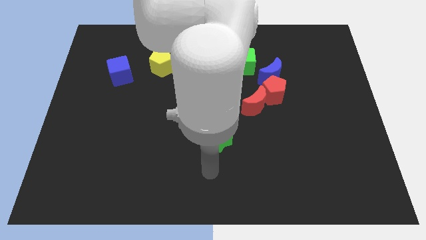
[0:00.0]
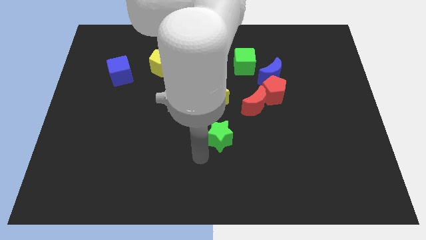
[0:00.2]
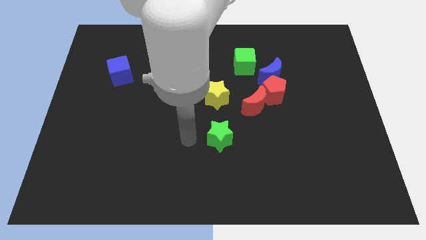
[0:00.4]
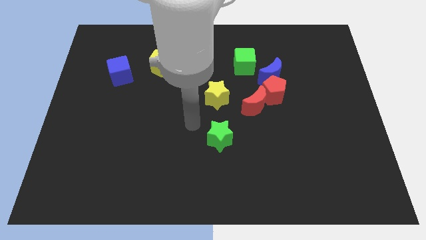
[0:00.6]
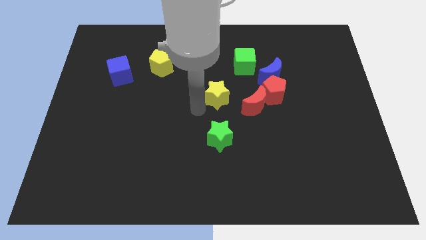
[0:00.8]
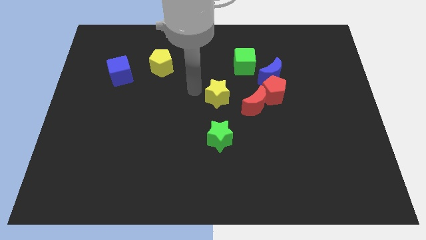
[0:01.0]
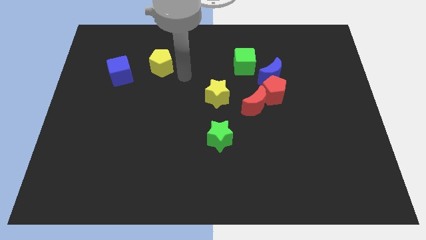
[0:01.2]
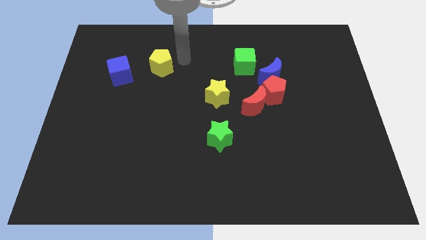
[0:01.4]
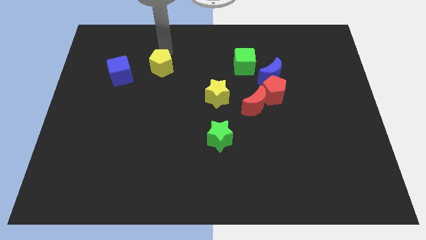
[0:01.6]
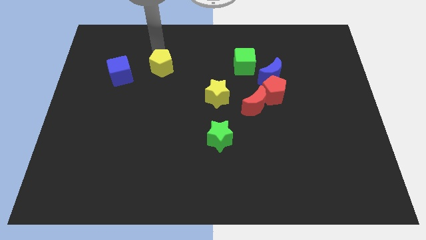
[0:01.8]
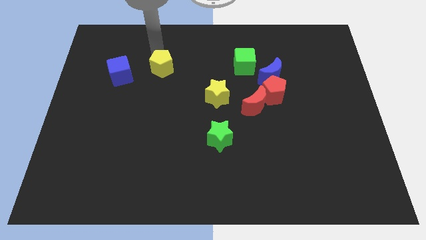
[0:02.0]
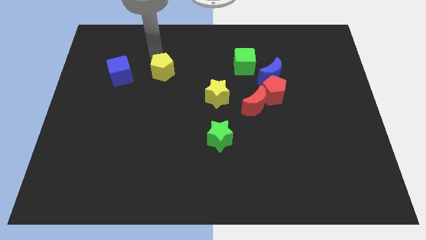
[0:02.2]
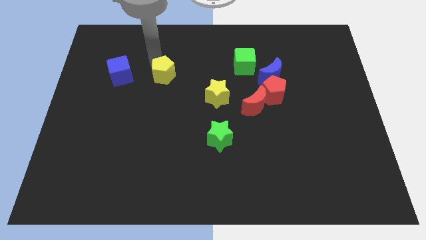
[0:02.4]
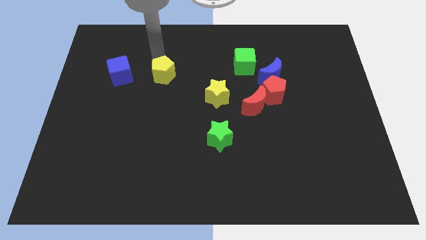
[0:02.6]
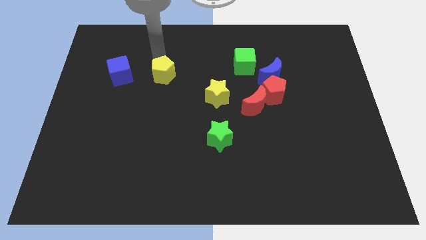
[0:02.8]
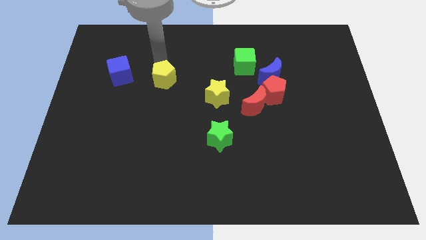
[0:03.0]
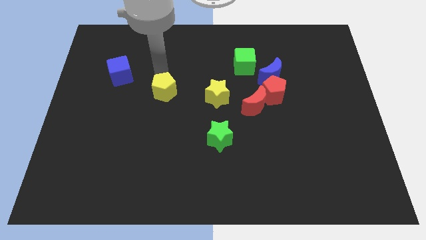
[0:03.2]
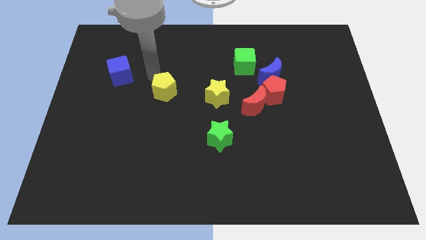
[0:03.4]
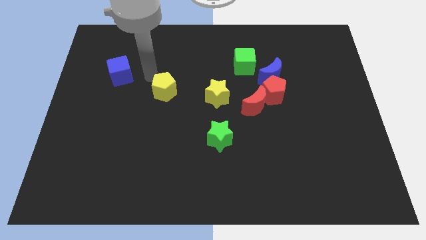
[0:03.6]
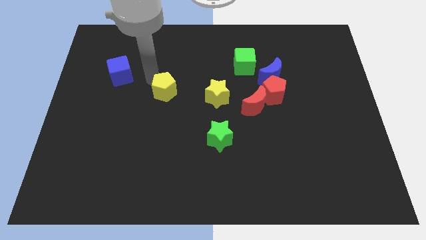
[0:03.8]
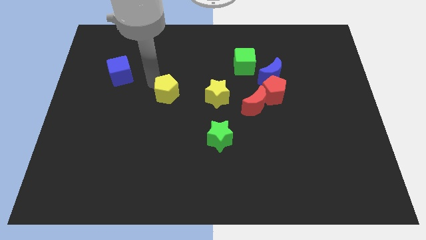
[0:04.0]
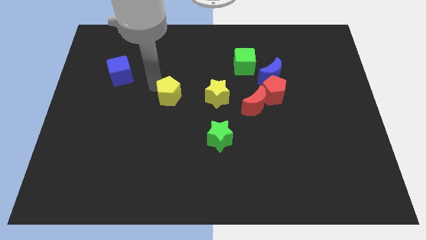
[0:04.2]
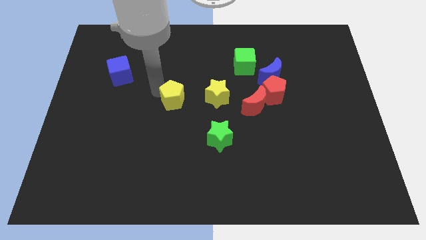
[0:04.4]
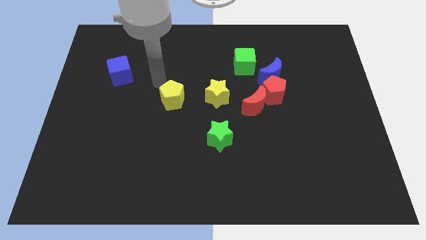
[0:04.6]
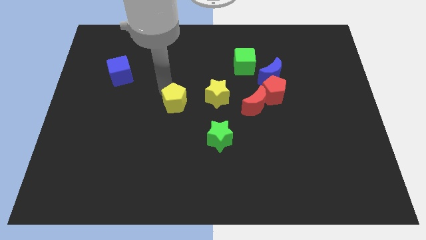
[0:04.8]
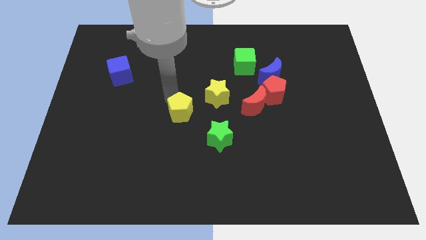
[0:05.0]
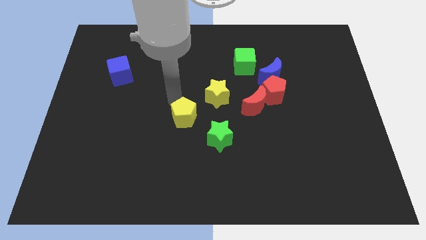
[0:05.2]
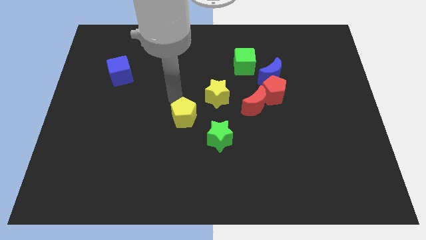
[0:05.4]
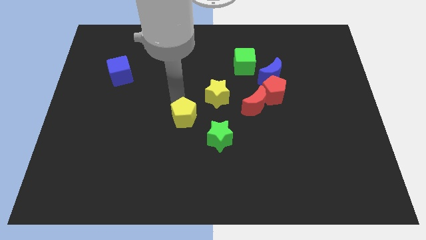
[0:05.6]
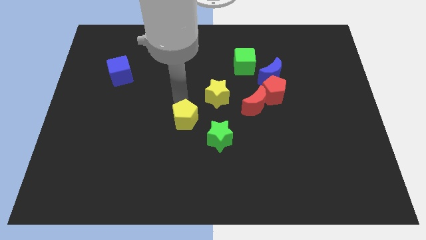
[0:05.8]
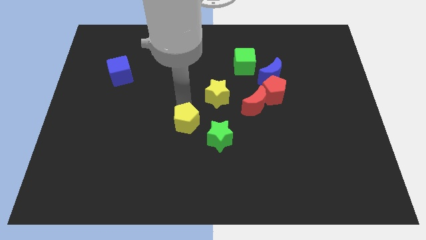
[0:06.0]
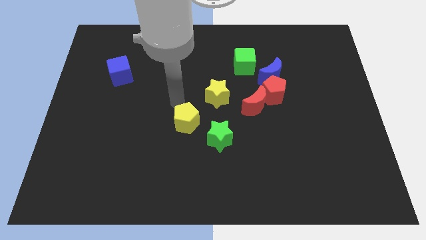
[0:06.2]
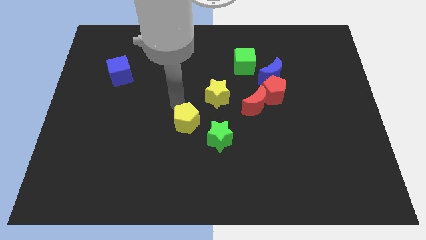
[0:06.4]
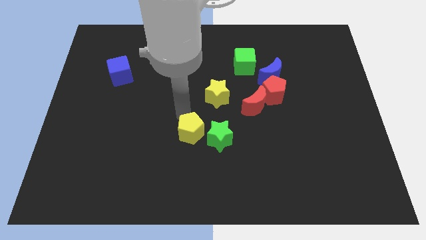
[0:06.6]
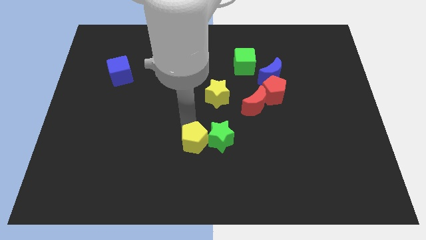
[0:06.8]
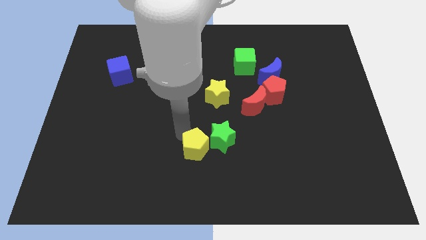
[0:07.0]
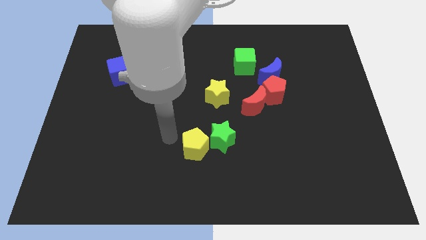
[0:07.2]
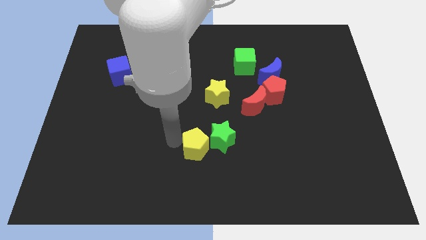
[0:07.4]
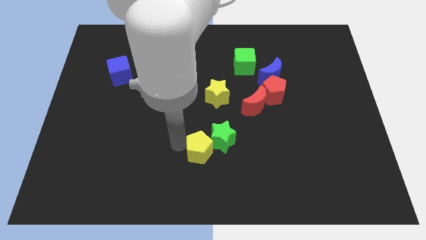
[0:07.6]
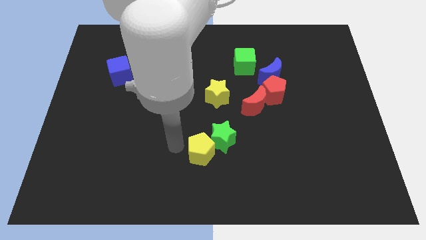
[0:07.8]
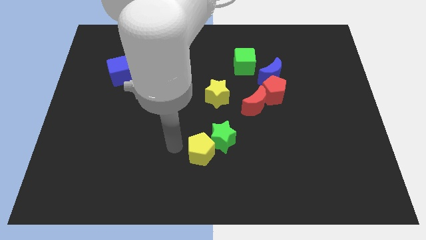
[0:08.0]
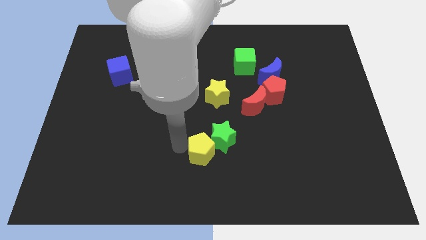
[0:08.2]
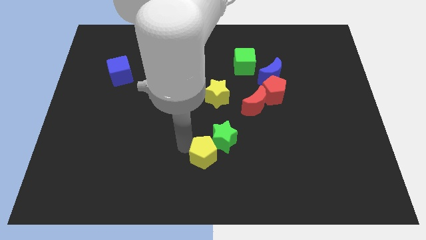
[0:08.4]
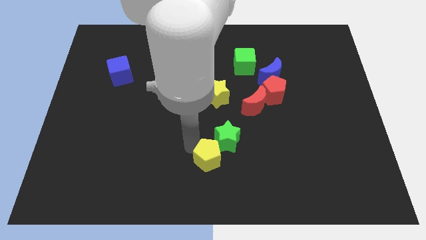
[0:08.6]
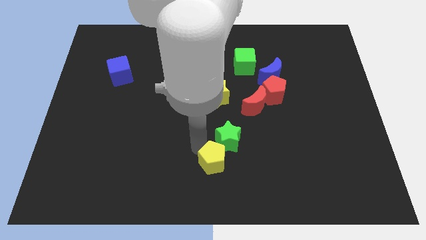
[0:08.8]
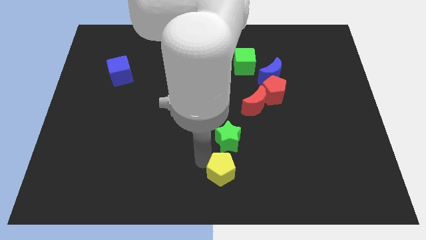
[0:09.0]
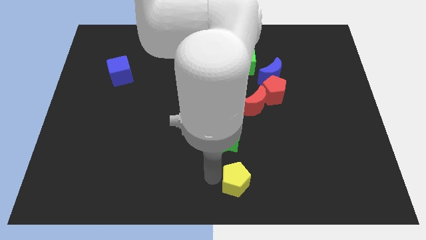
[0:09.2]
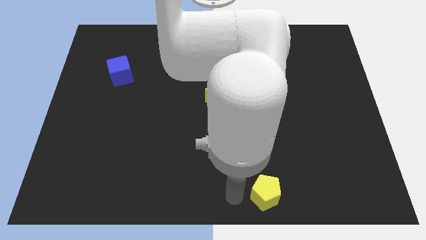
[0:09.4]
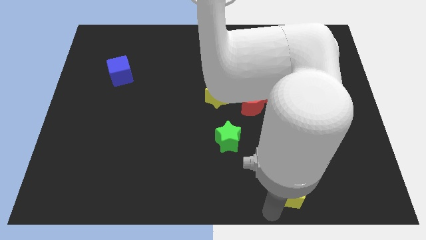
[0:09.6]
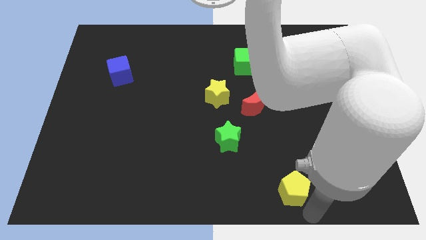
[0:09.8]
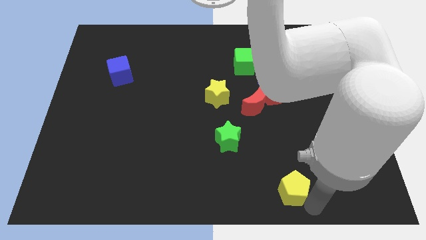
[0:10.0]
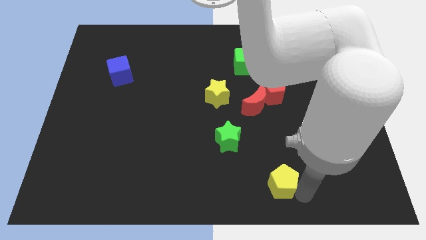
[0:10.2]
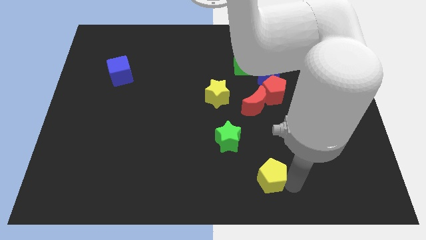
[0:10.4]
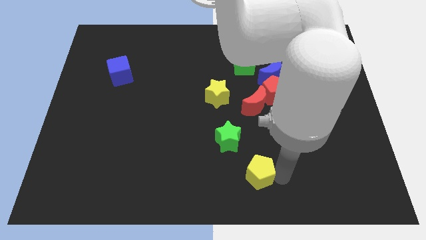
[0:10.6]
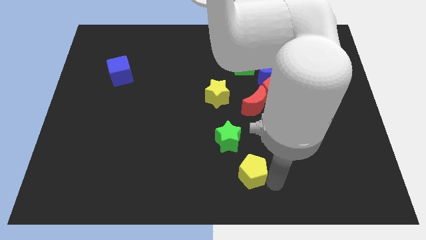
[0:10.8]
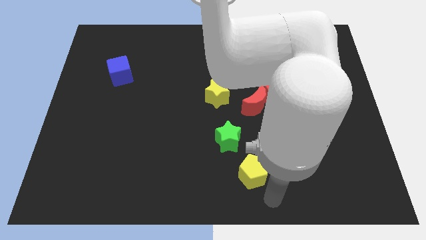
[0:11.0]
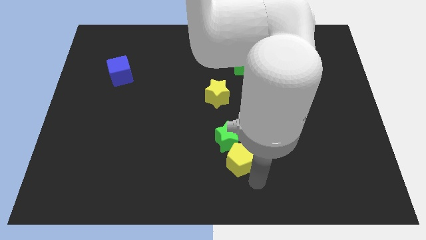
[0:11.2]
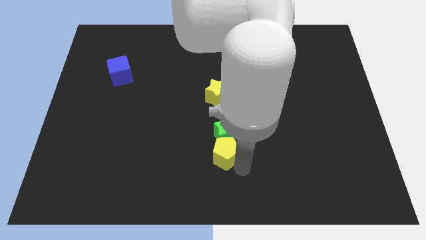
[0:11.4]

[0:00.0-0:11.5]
slide the yellow pentagon to the bottom side of the yellow star

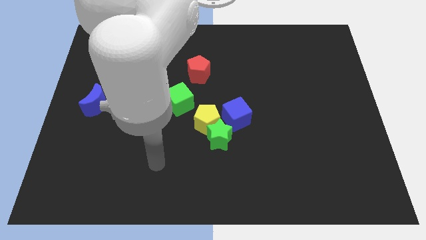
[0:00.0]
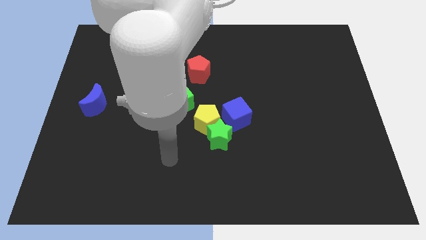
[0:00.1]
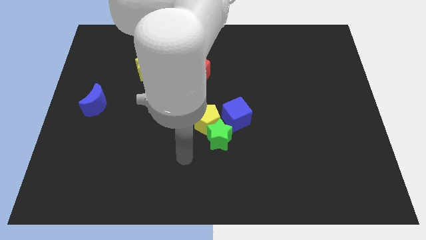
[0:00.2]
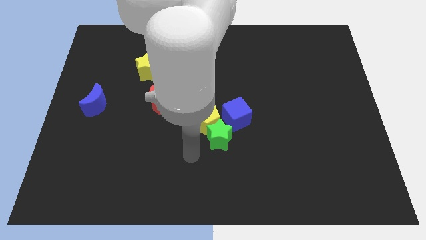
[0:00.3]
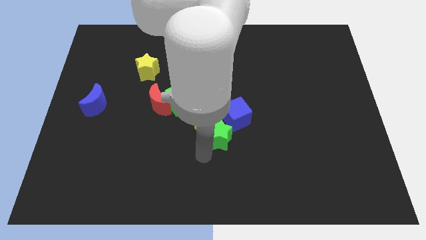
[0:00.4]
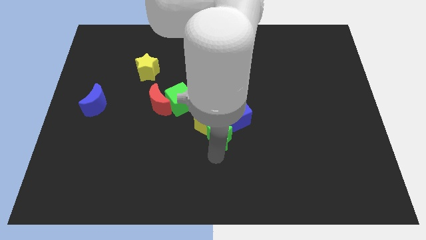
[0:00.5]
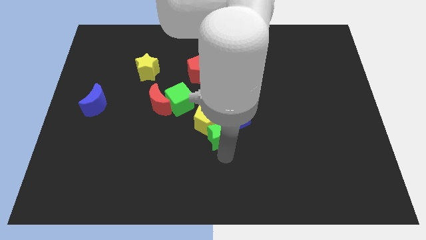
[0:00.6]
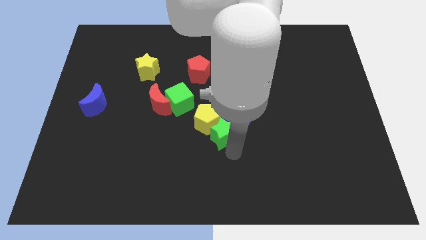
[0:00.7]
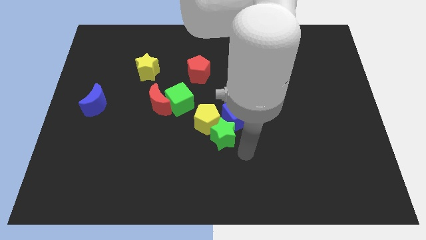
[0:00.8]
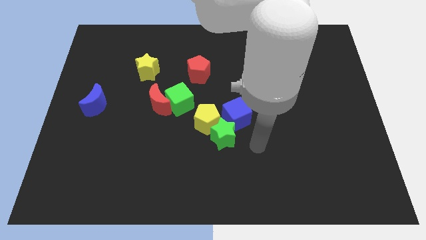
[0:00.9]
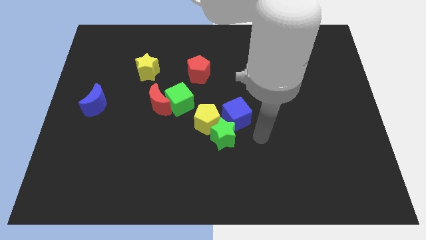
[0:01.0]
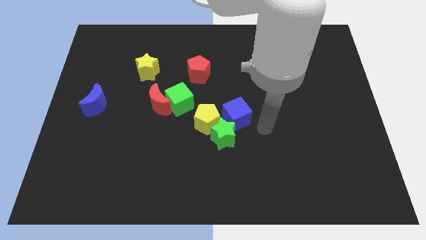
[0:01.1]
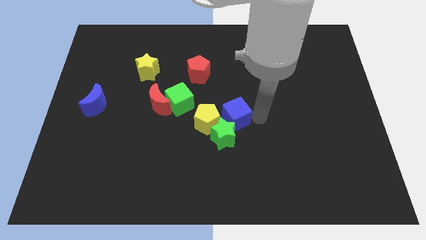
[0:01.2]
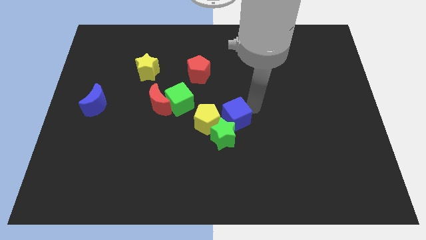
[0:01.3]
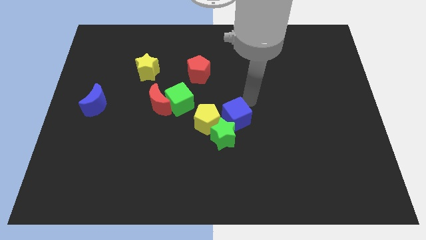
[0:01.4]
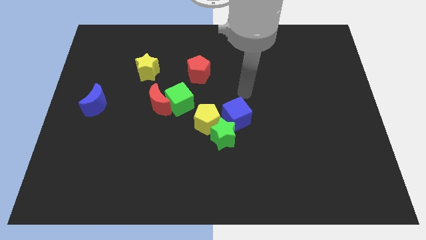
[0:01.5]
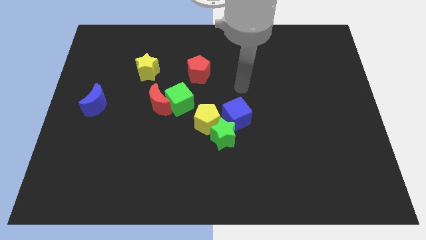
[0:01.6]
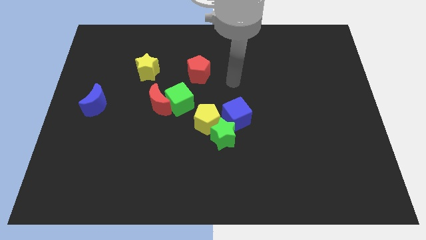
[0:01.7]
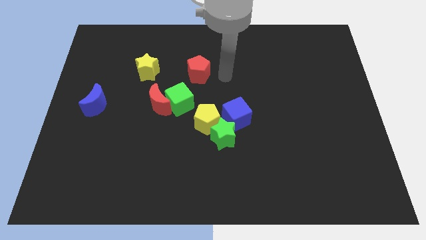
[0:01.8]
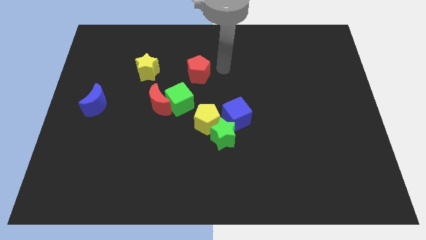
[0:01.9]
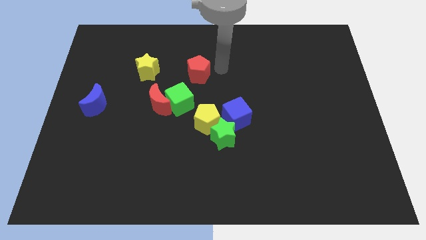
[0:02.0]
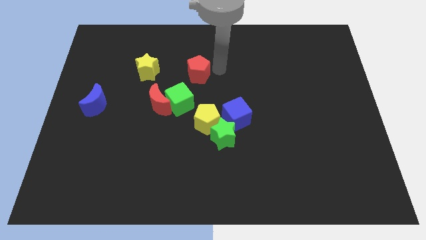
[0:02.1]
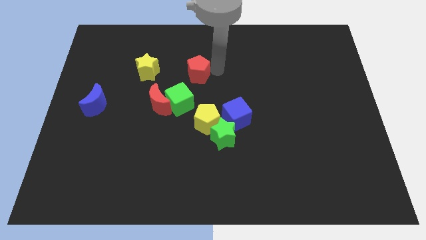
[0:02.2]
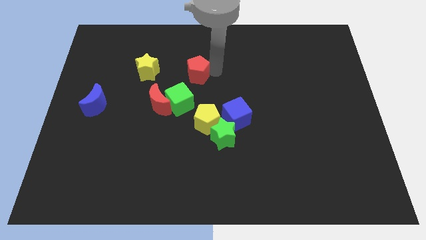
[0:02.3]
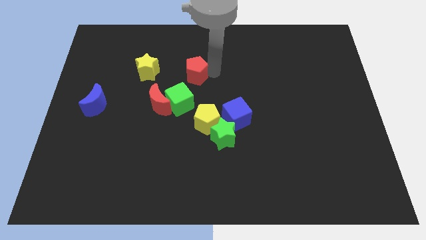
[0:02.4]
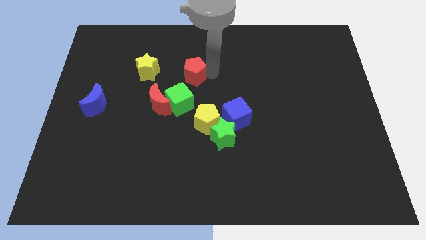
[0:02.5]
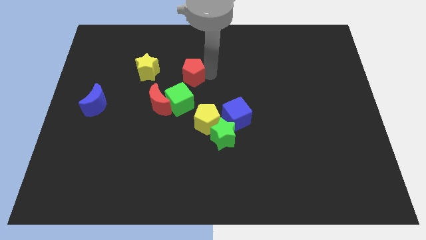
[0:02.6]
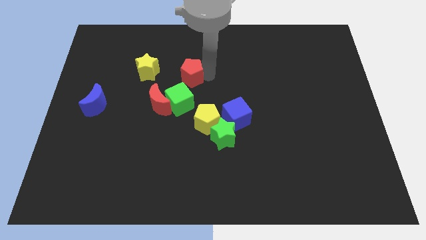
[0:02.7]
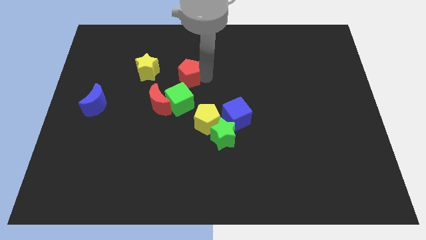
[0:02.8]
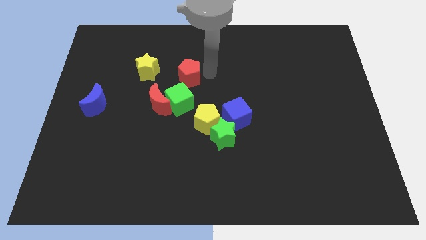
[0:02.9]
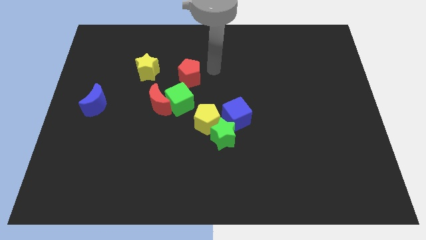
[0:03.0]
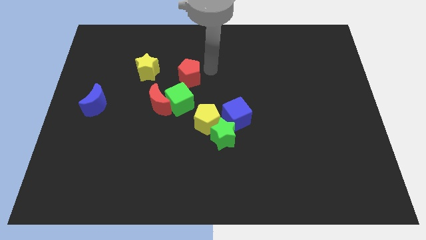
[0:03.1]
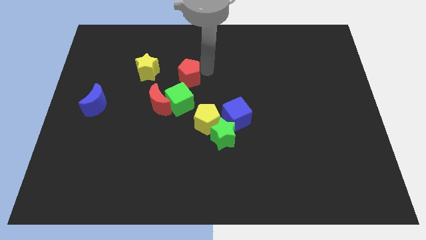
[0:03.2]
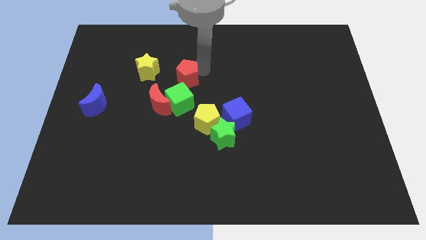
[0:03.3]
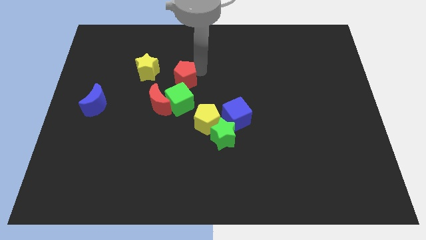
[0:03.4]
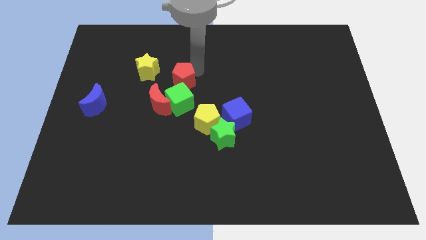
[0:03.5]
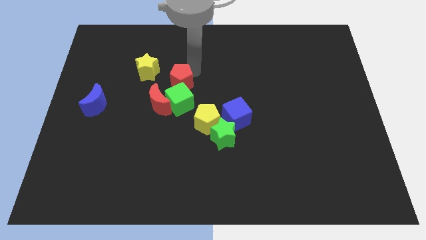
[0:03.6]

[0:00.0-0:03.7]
move the red pentagon diagonally up and to the left of the green cube
